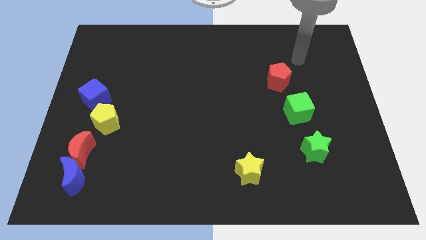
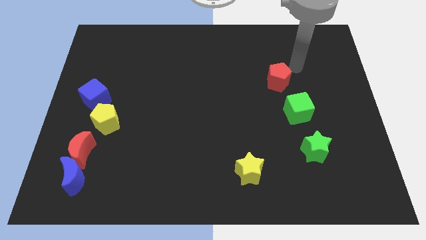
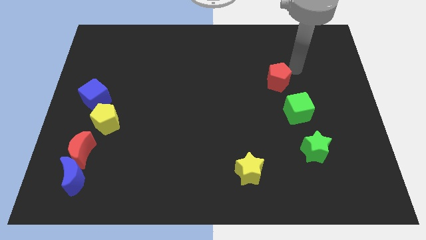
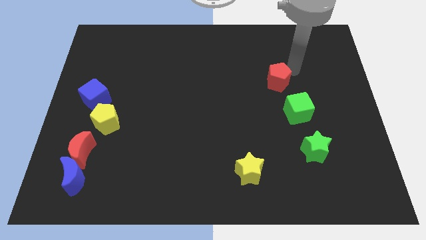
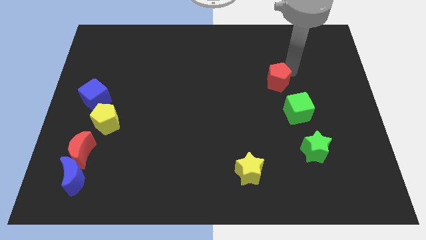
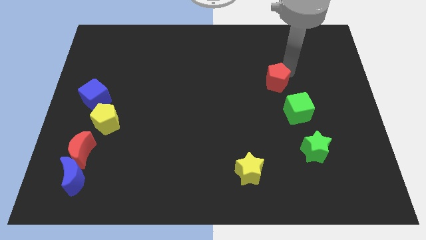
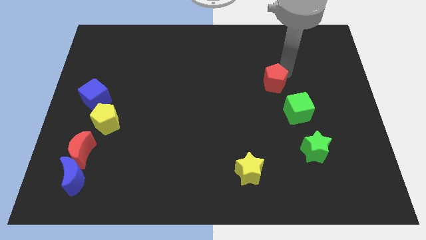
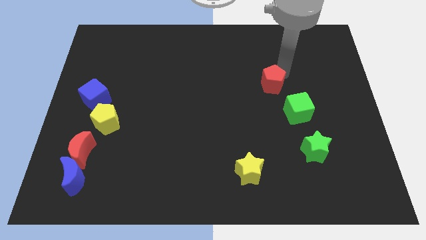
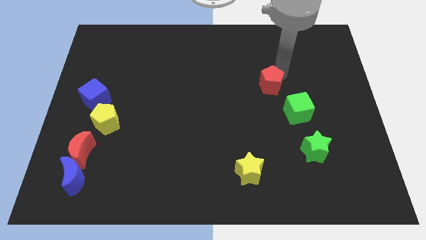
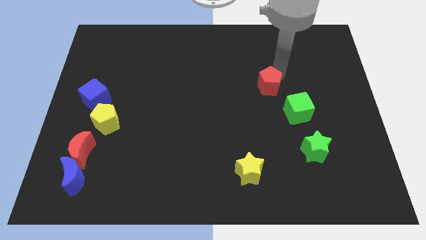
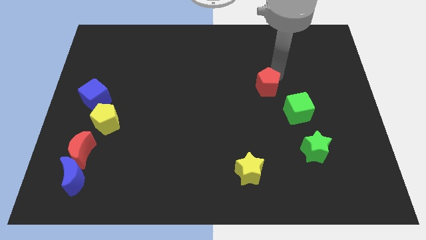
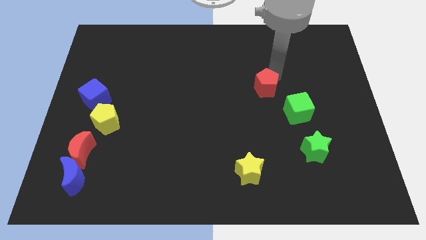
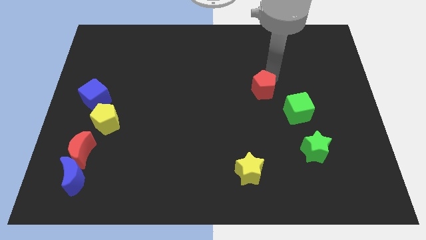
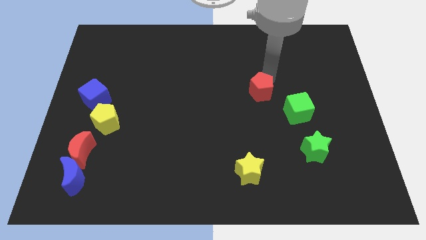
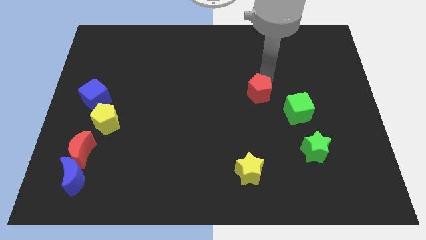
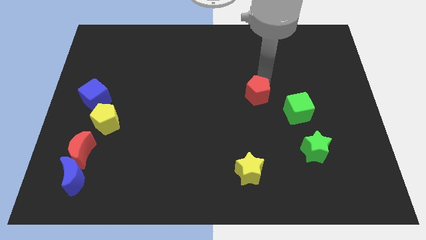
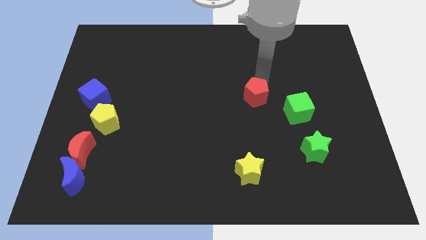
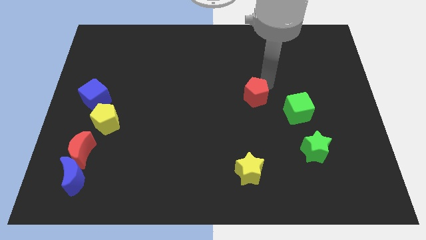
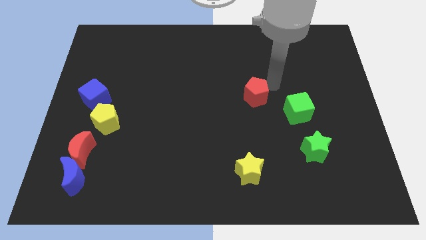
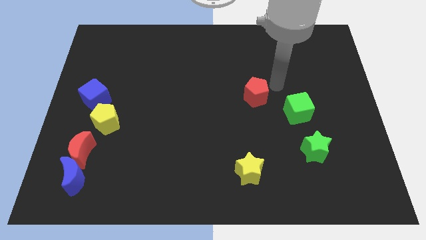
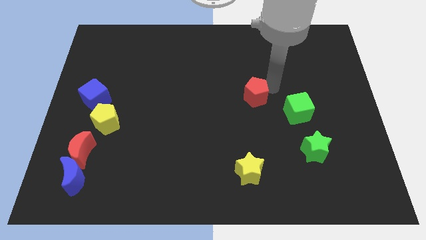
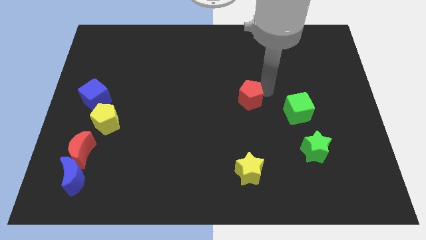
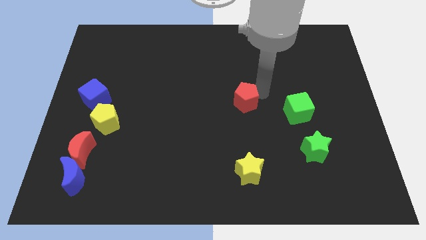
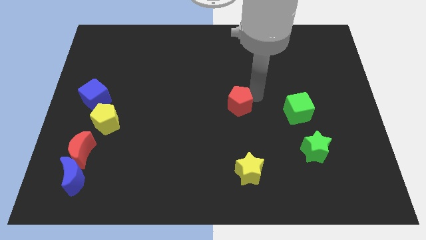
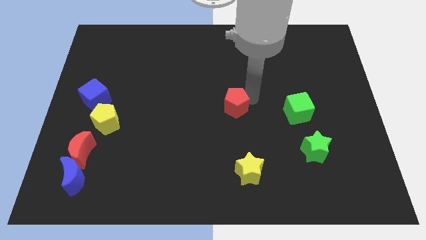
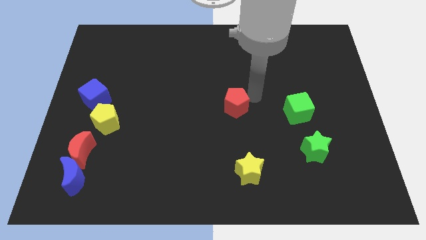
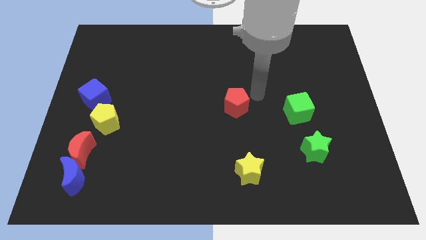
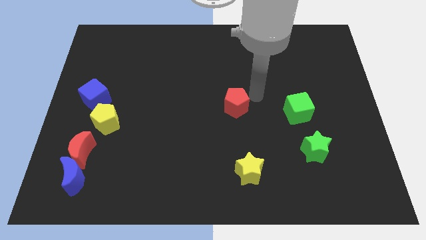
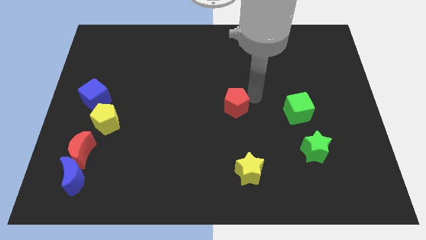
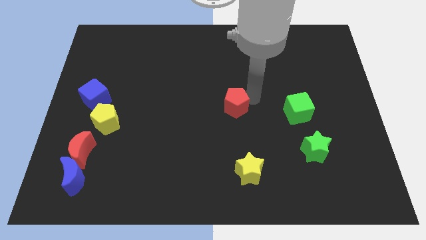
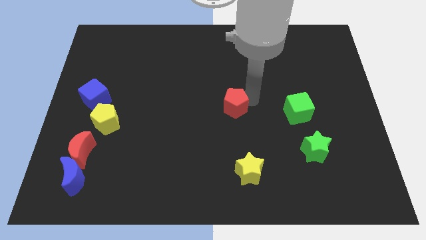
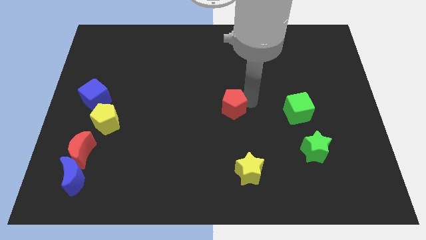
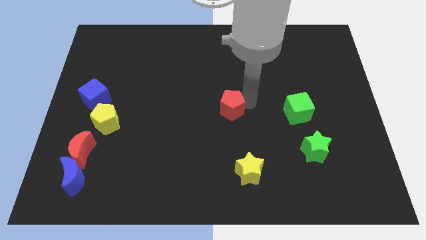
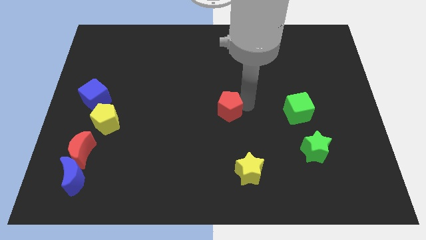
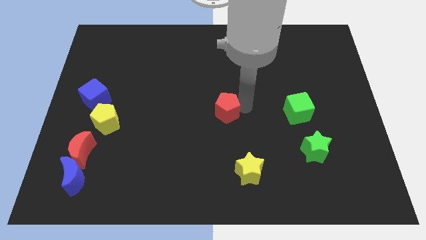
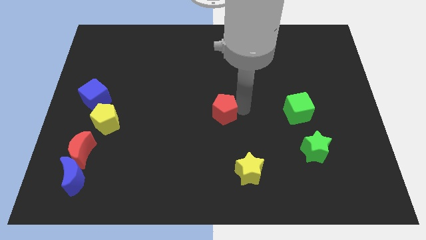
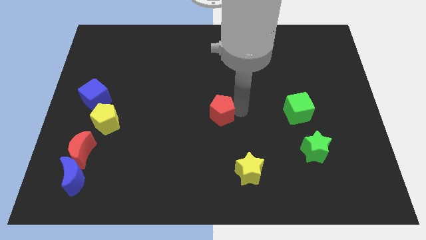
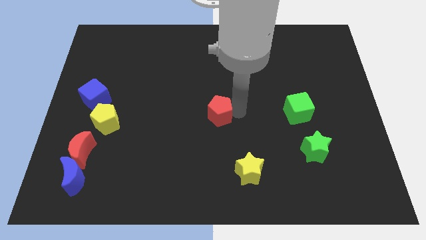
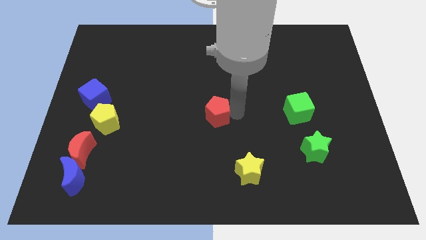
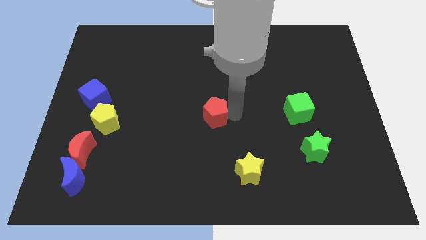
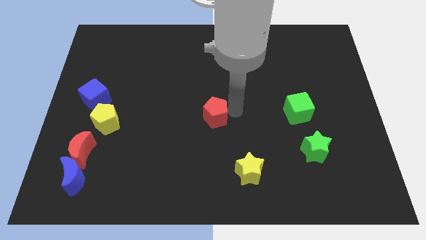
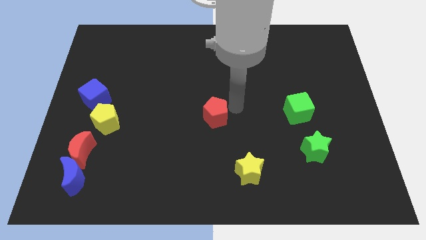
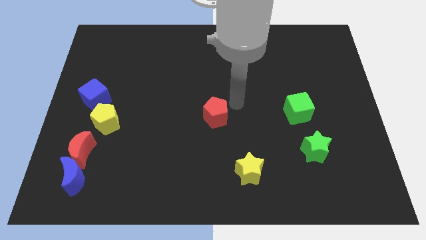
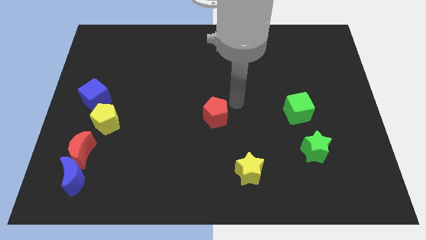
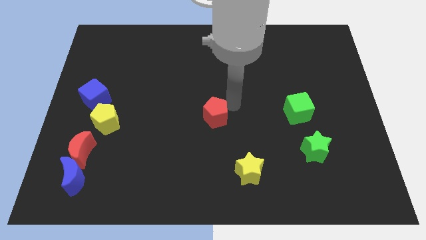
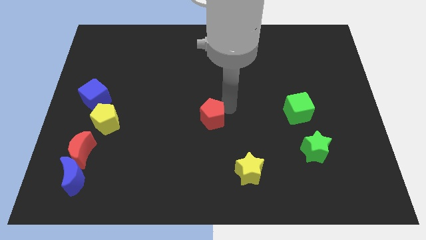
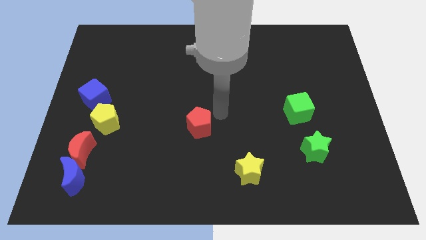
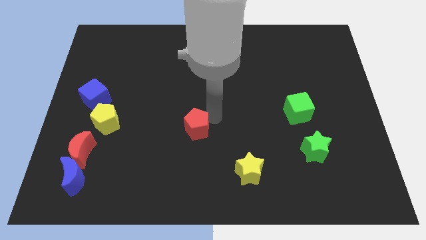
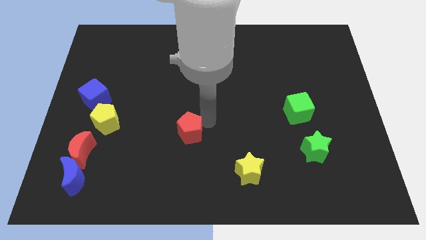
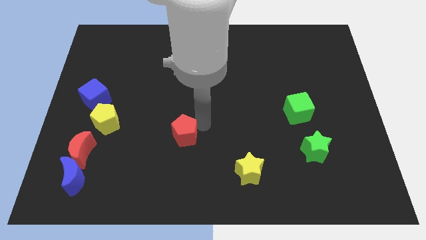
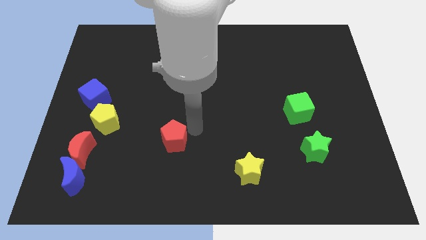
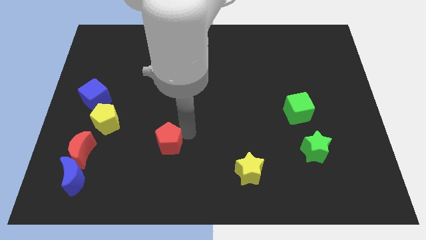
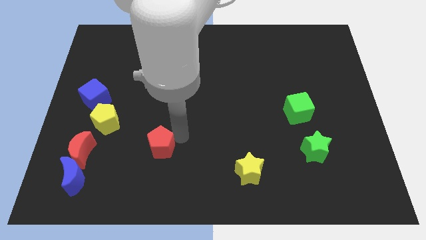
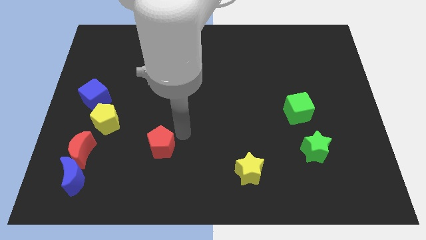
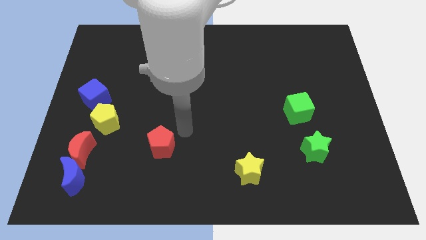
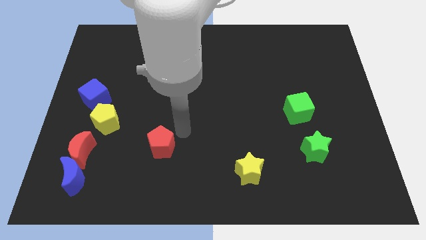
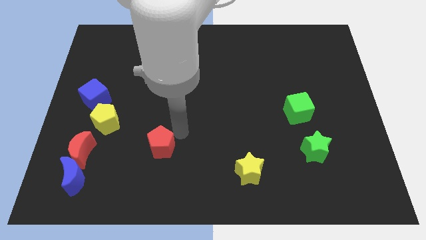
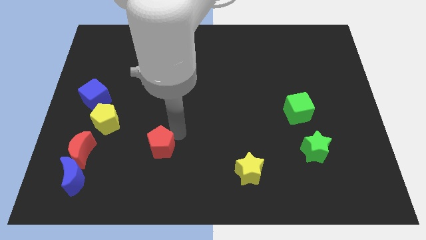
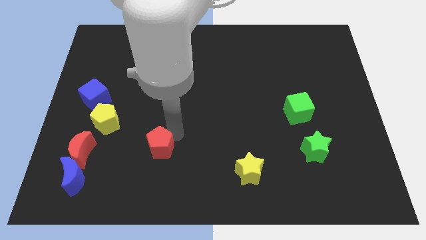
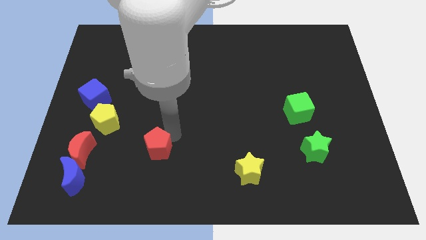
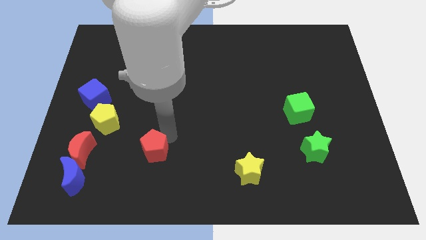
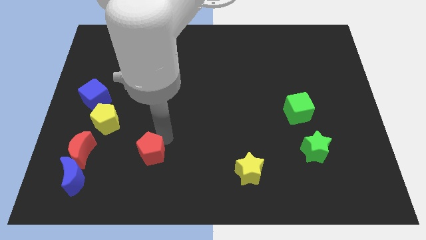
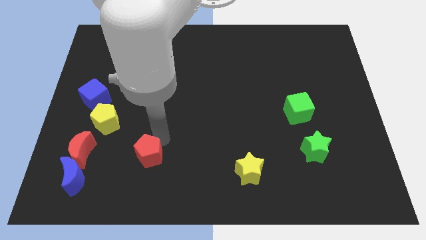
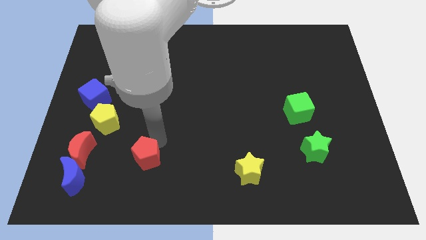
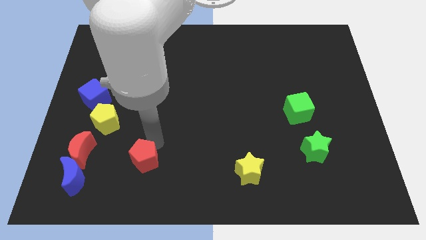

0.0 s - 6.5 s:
put the red pentagon just right of the blue moon

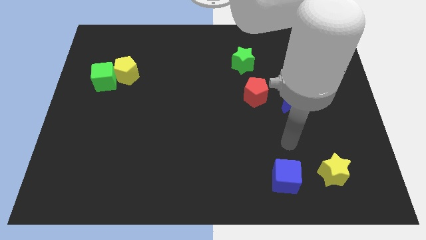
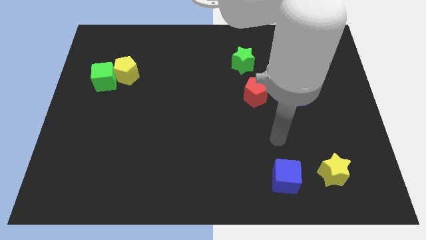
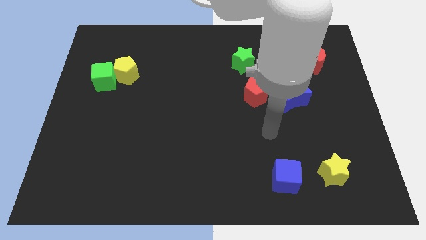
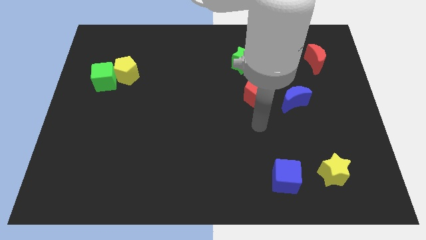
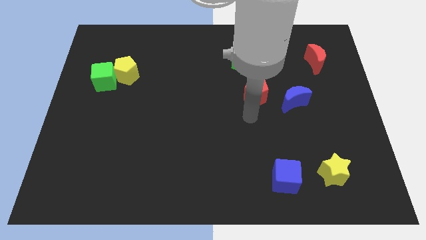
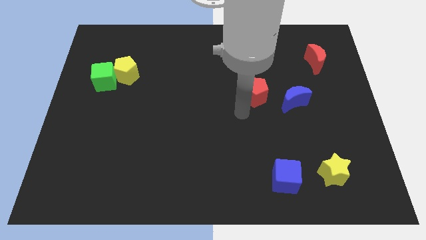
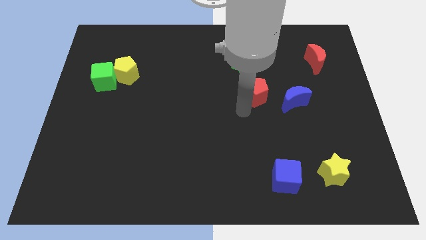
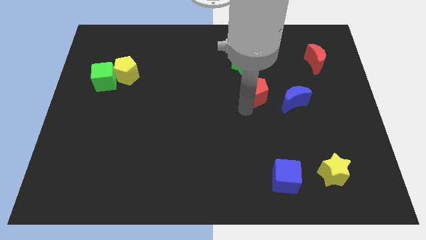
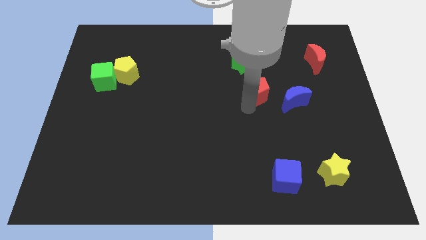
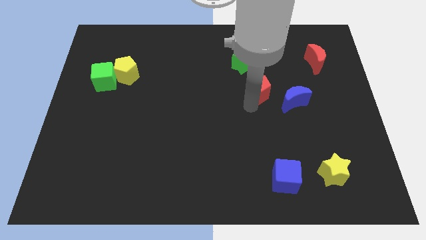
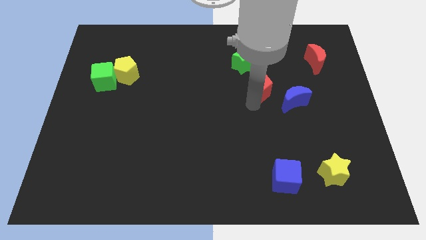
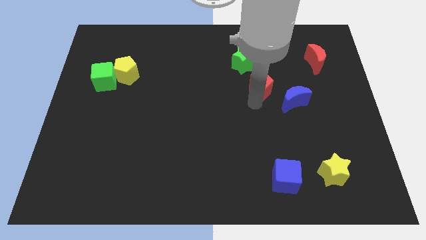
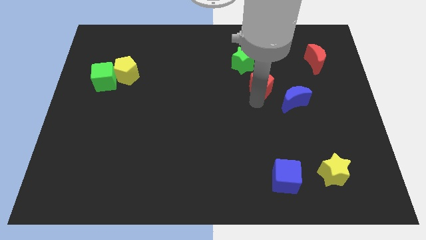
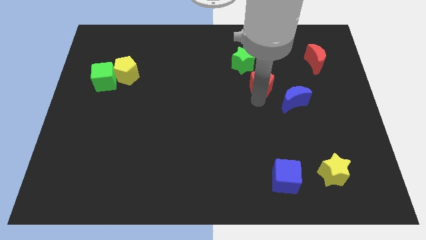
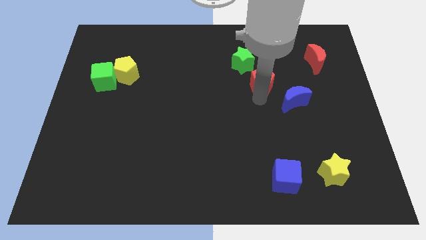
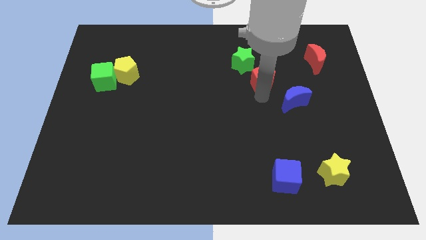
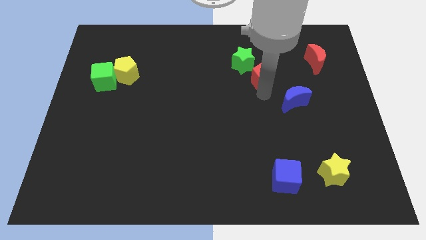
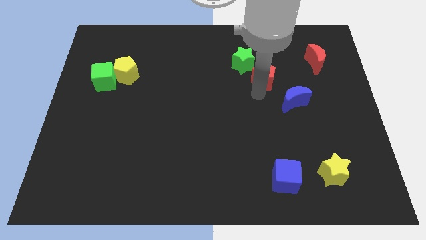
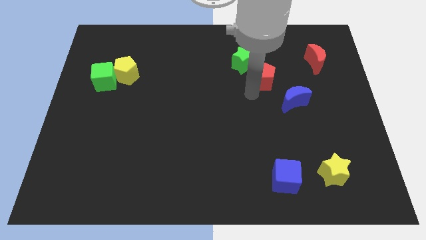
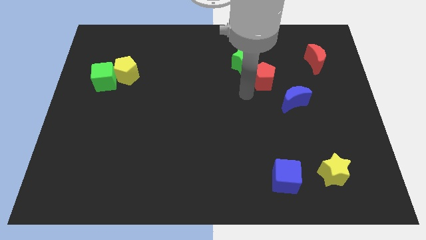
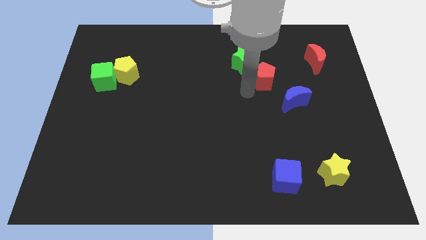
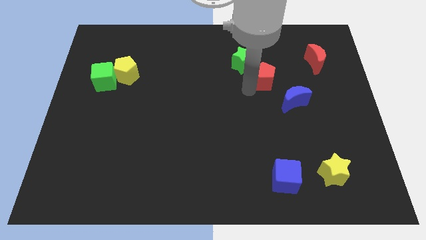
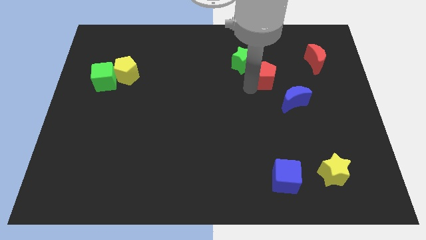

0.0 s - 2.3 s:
slide the red pentagon to the right of the green star
